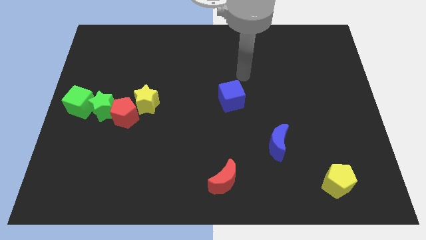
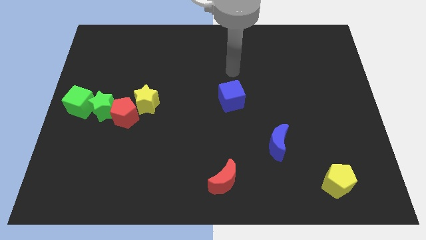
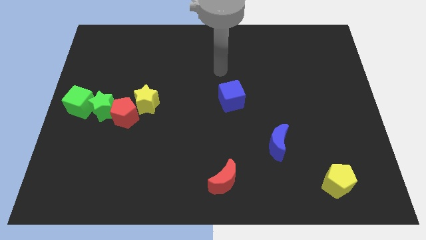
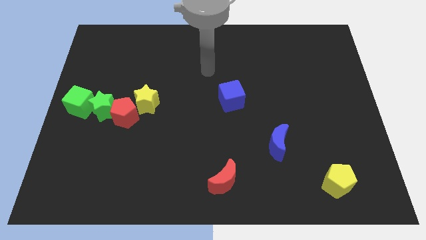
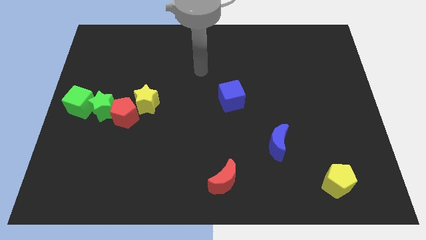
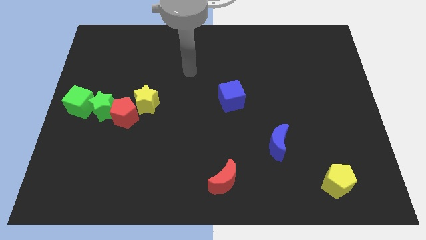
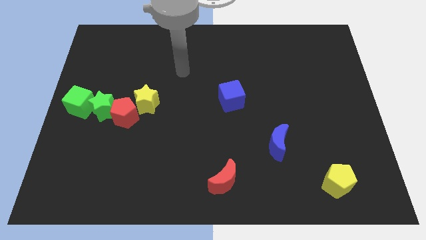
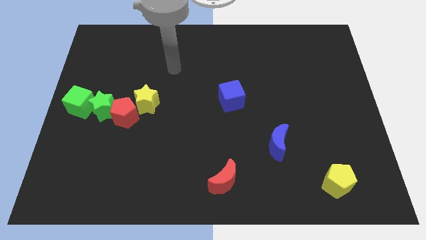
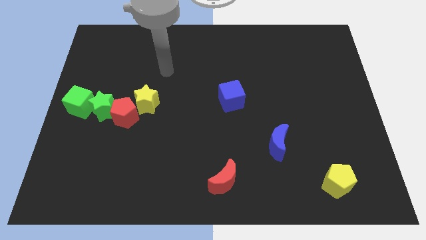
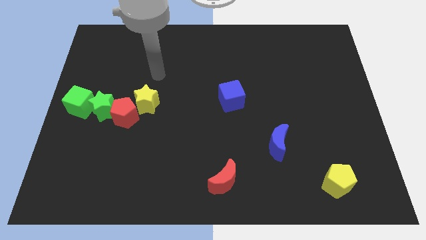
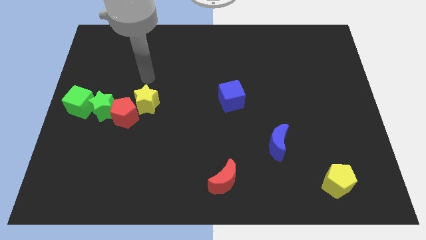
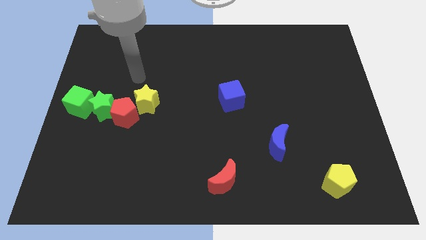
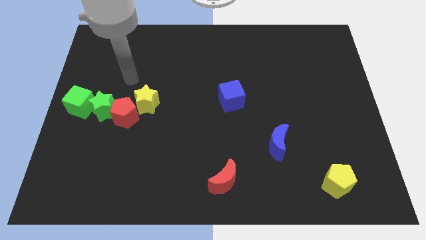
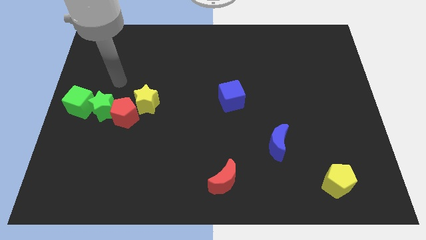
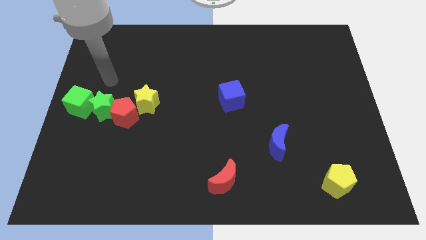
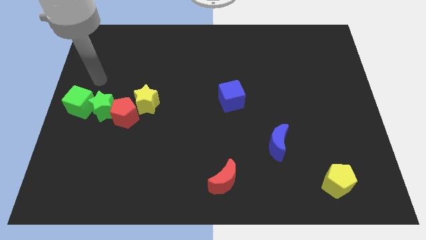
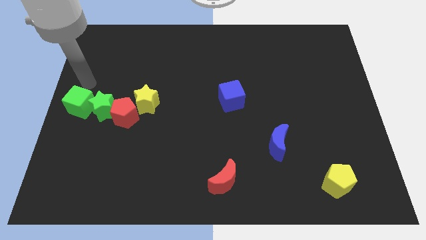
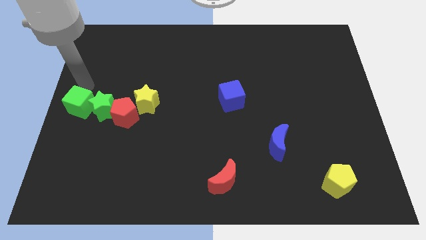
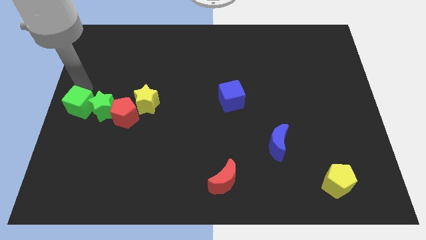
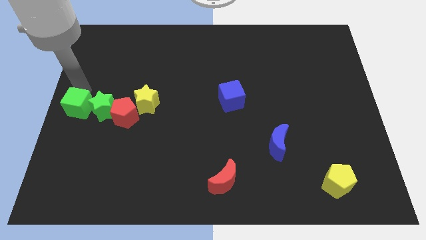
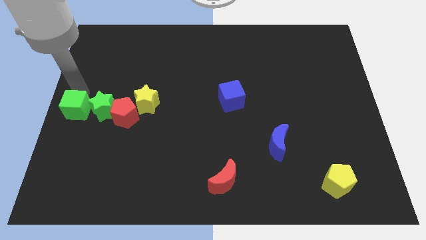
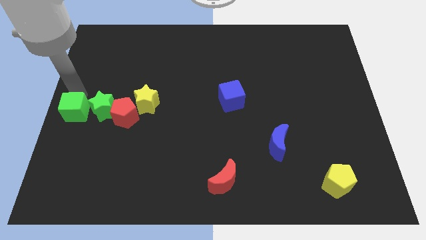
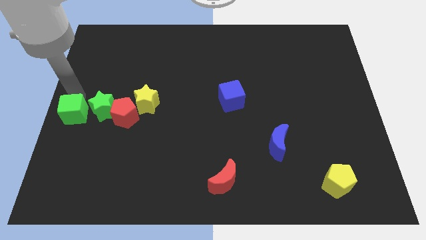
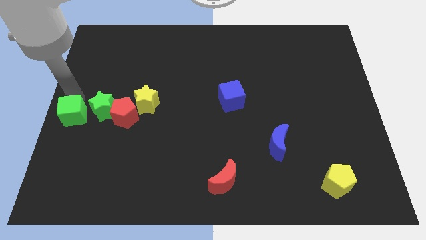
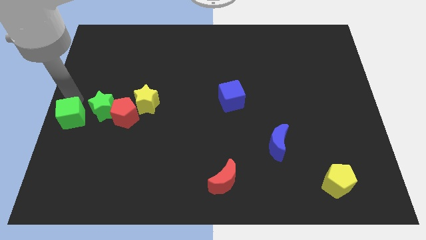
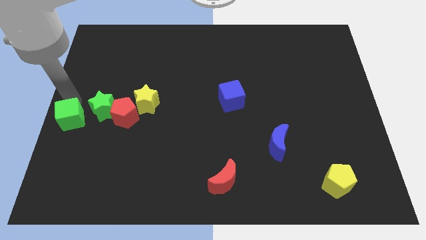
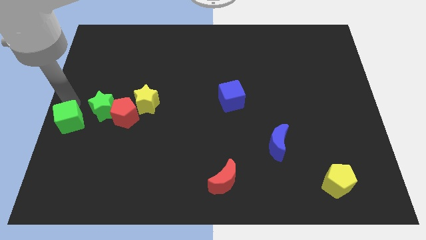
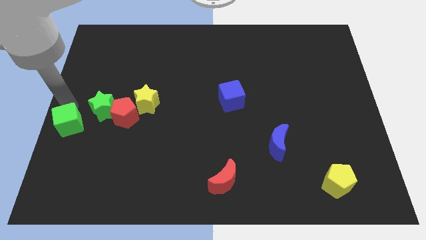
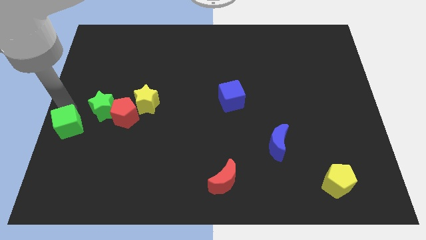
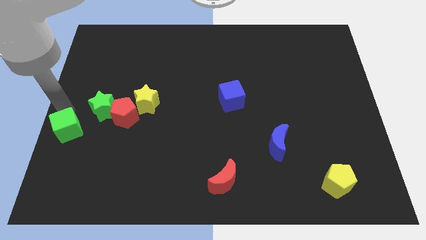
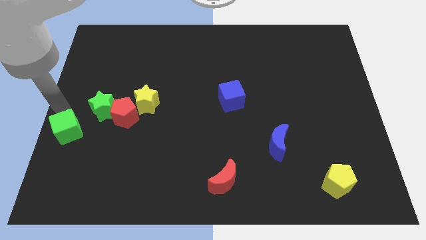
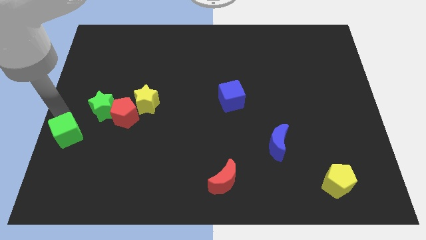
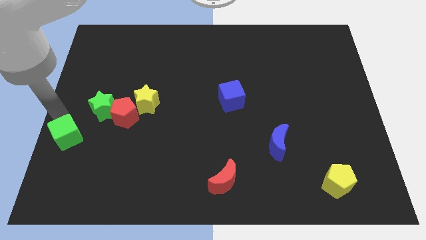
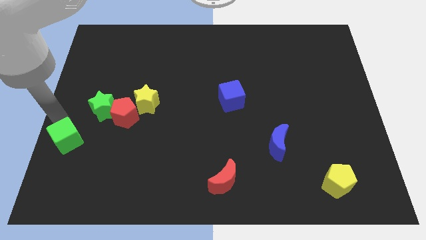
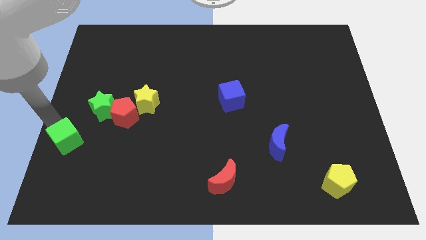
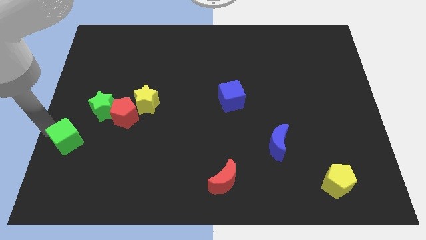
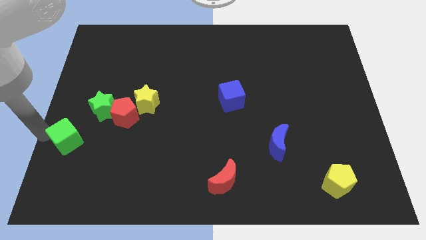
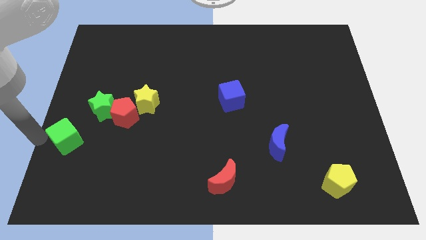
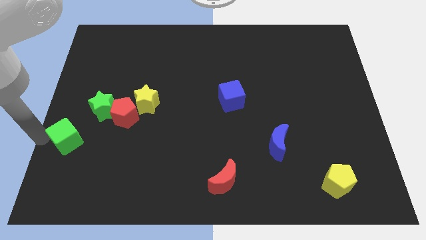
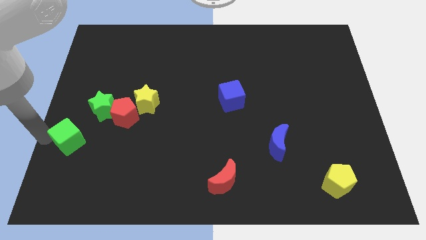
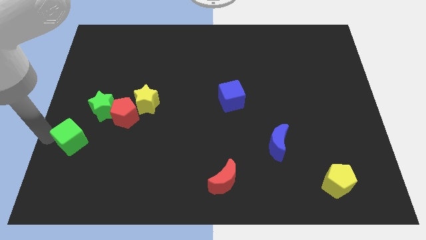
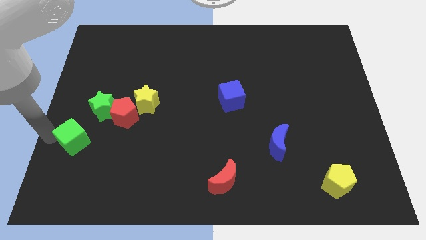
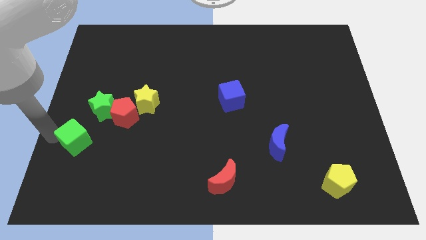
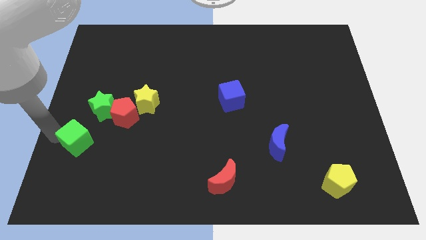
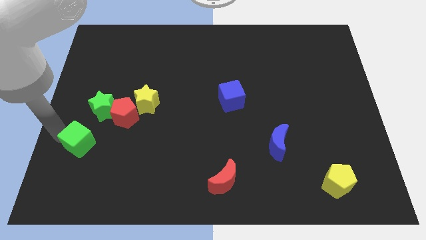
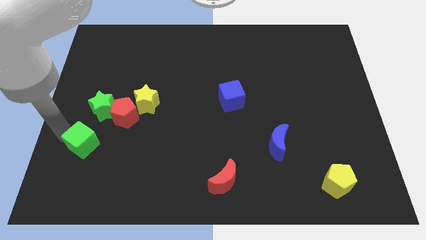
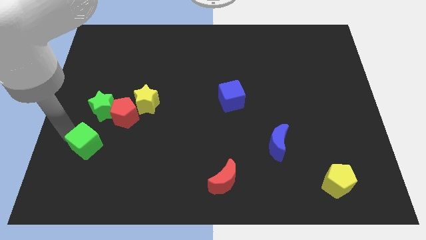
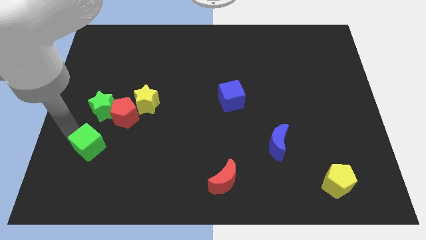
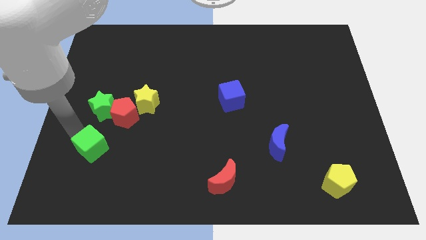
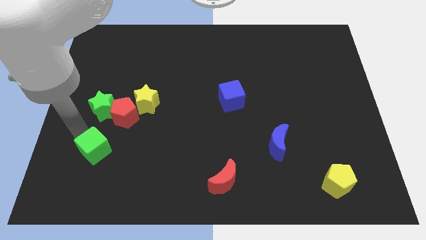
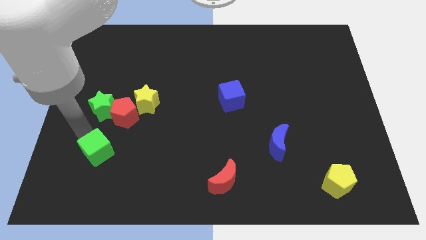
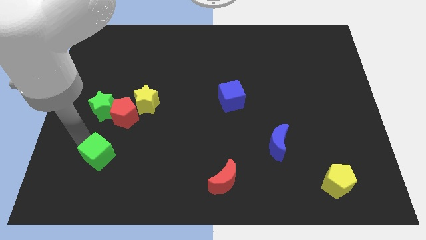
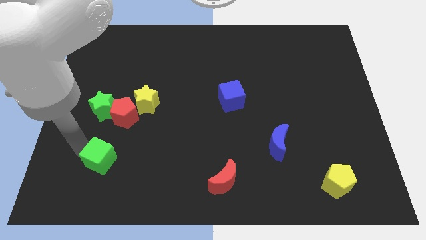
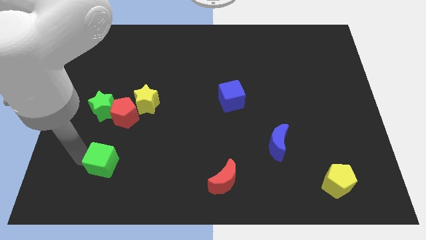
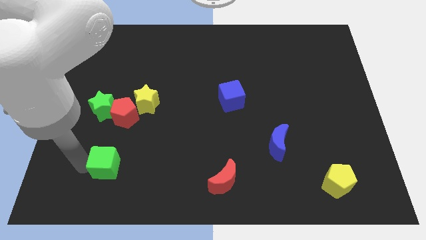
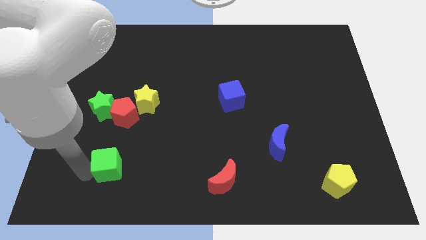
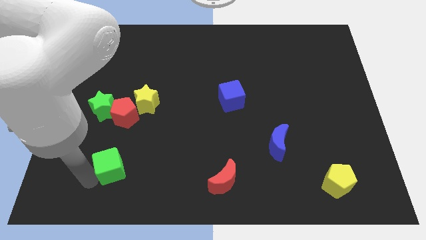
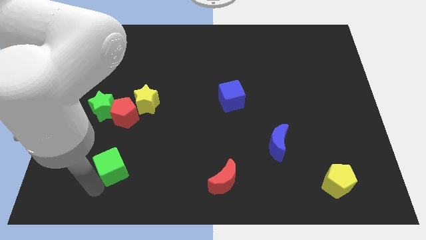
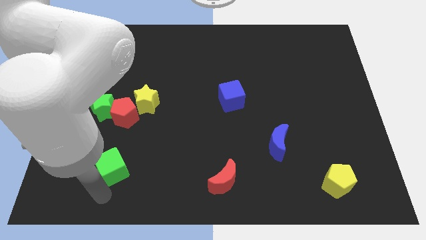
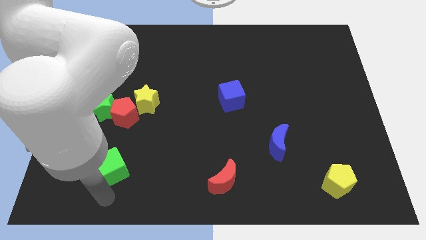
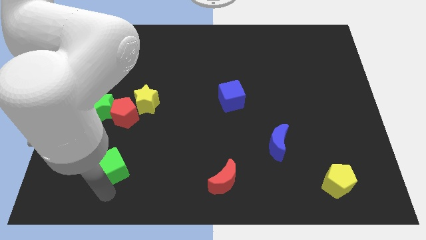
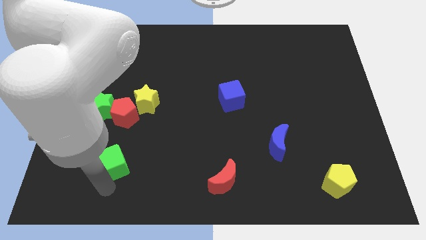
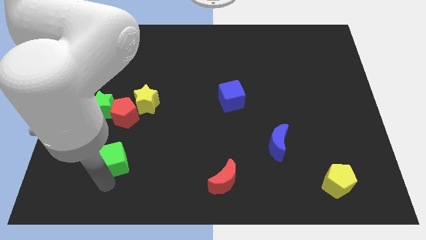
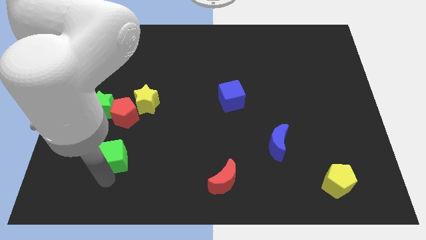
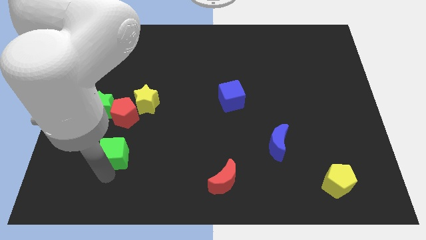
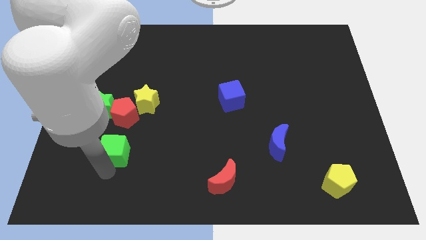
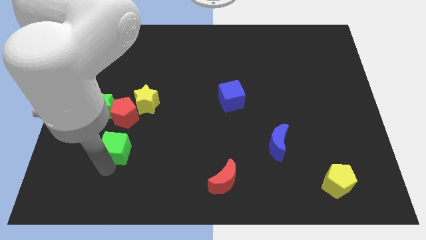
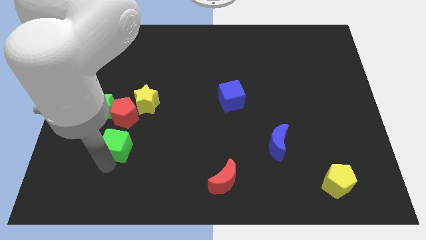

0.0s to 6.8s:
put the green cube to the bottom right side of the green star

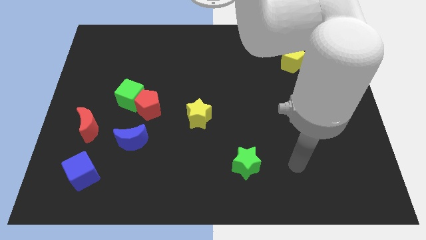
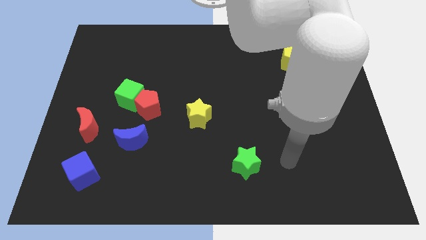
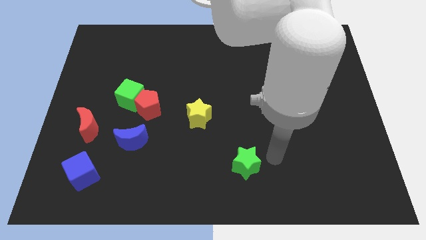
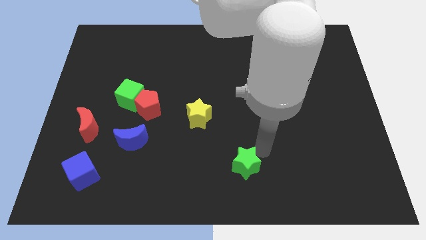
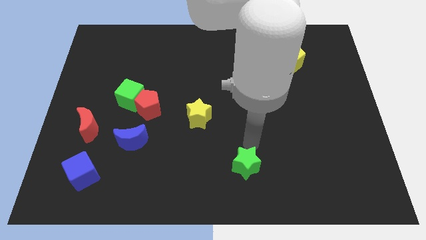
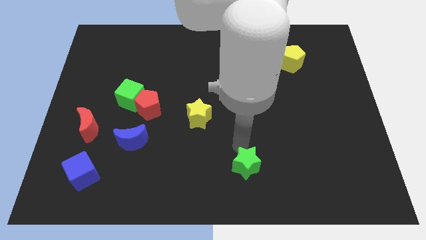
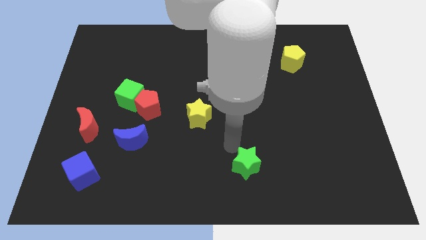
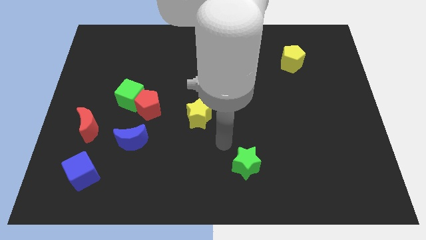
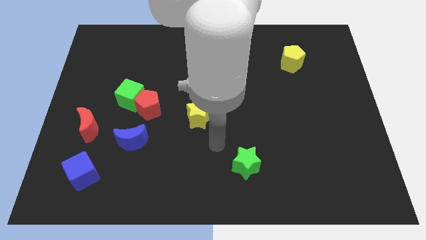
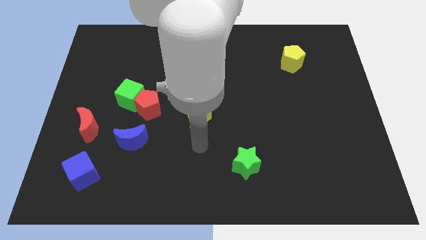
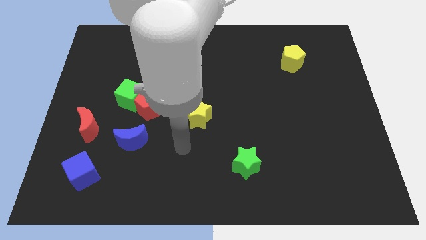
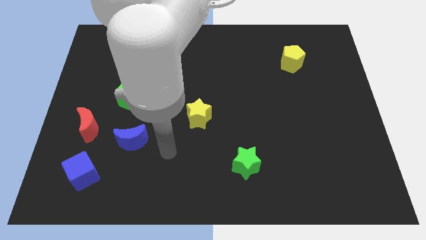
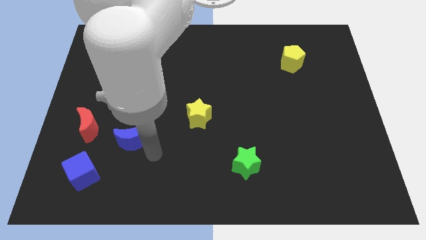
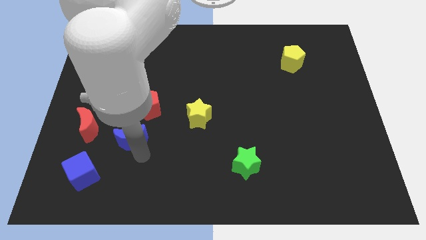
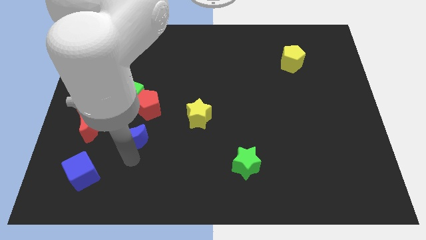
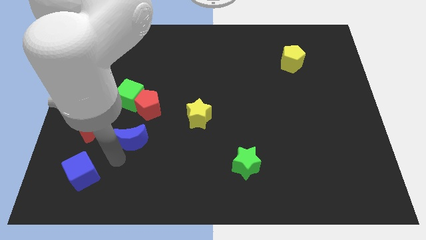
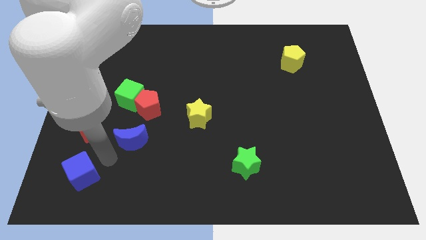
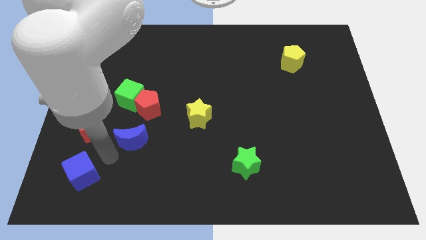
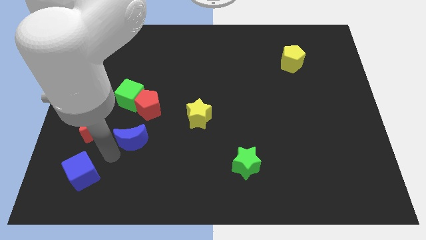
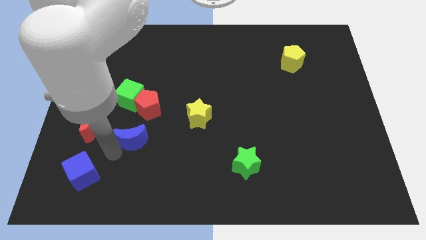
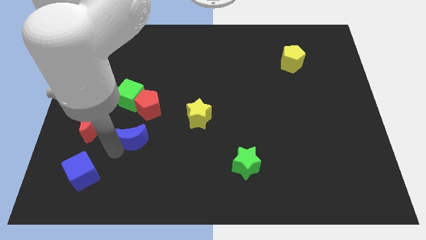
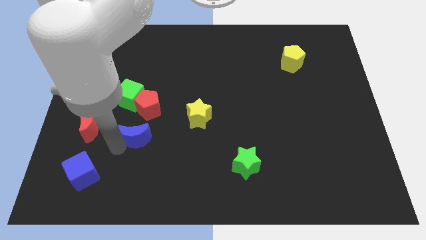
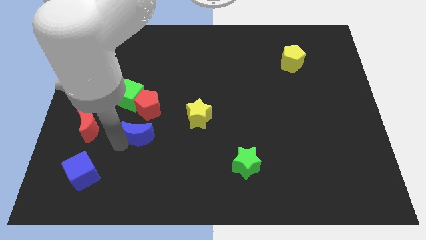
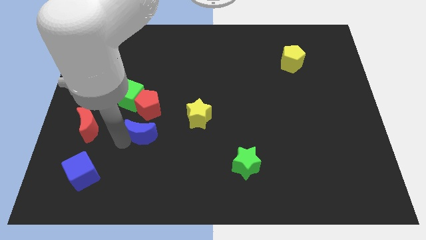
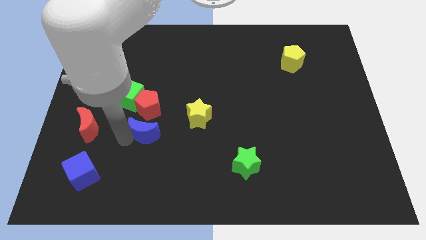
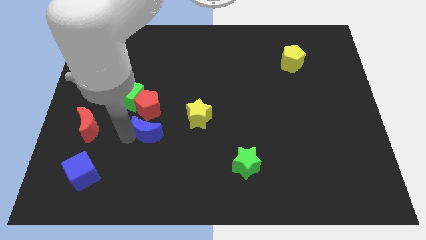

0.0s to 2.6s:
push the blue moon diagonally down and to the right of the red pentagon
